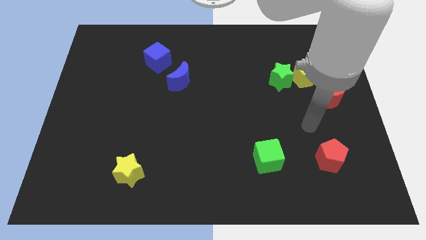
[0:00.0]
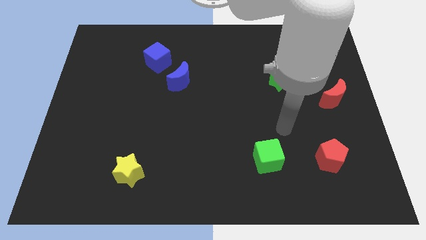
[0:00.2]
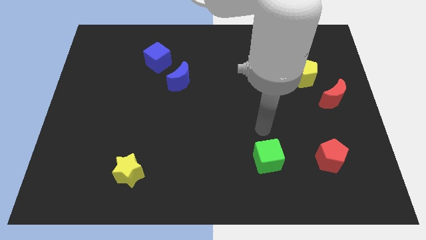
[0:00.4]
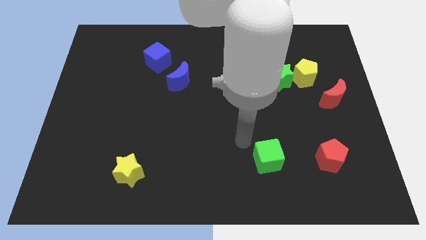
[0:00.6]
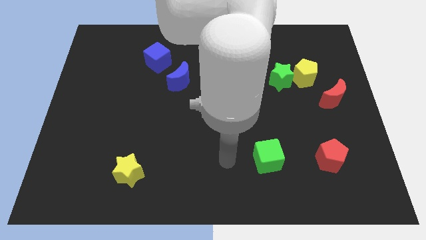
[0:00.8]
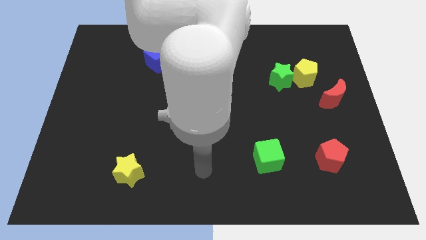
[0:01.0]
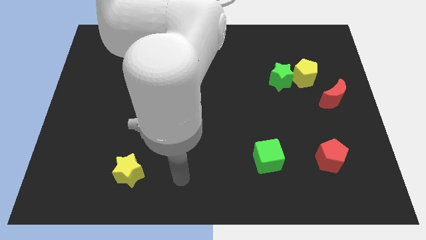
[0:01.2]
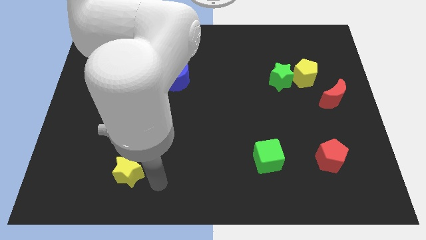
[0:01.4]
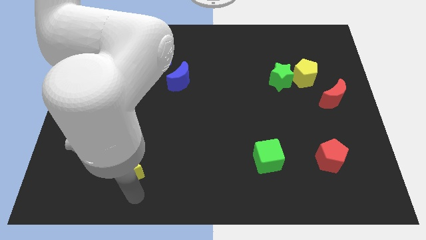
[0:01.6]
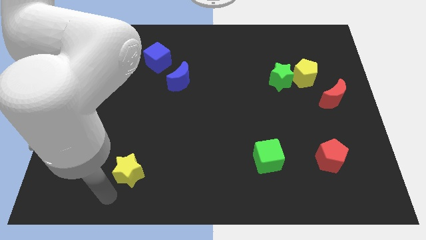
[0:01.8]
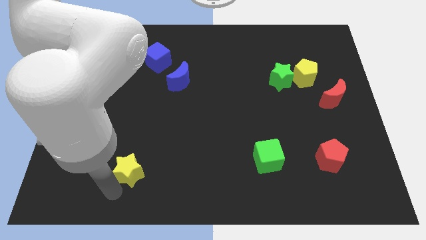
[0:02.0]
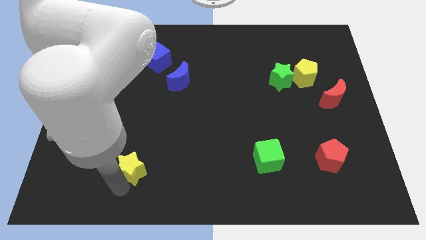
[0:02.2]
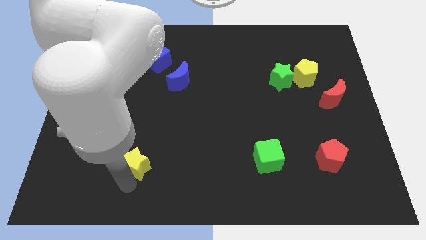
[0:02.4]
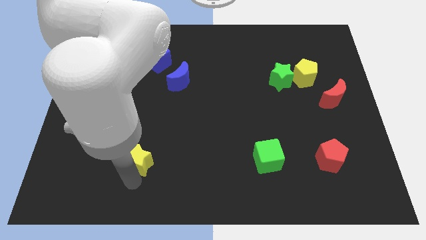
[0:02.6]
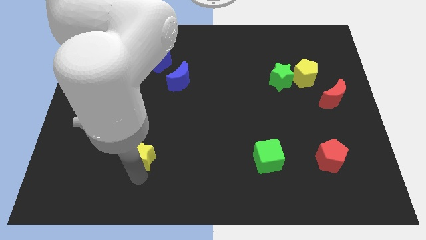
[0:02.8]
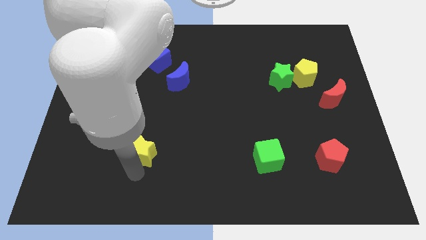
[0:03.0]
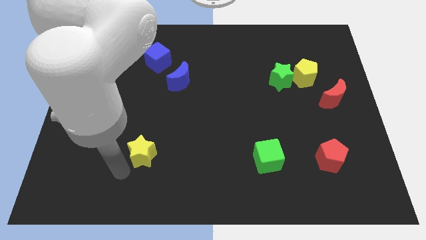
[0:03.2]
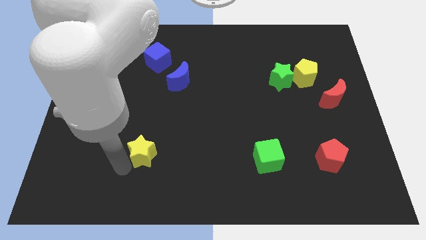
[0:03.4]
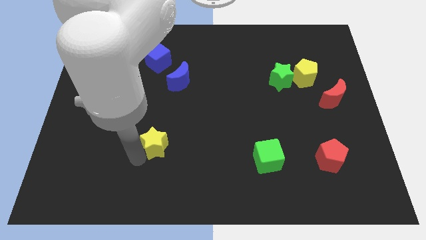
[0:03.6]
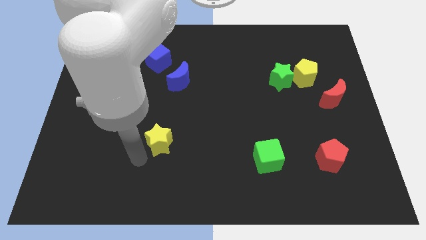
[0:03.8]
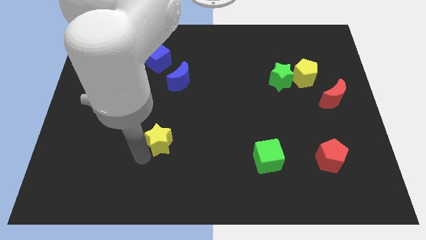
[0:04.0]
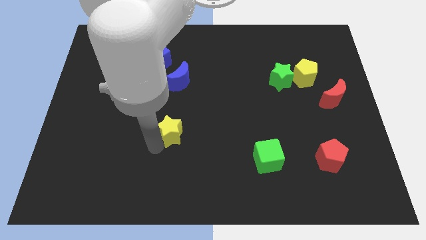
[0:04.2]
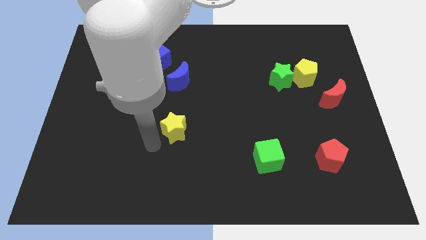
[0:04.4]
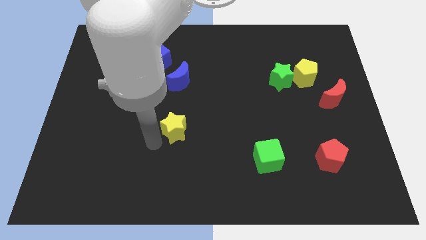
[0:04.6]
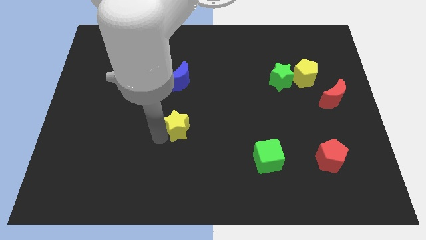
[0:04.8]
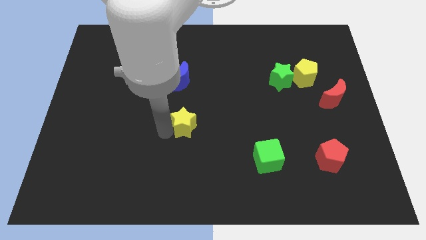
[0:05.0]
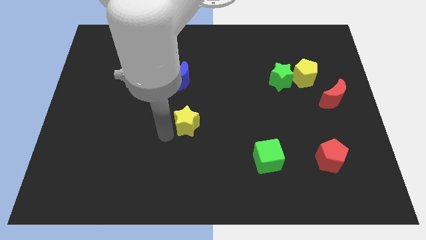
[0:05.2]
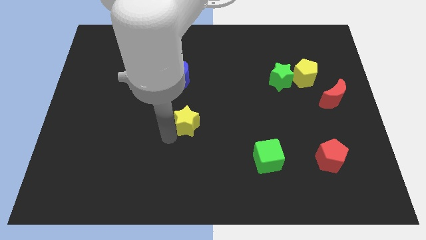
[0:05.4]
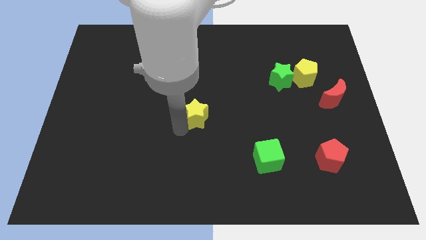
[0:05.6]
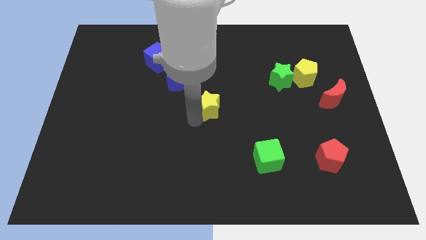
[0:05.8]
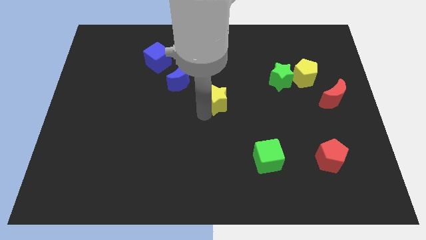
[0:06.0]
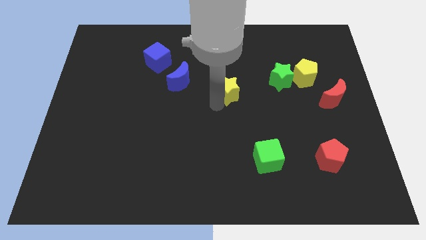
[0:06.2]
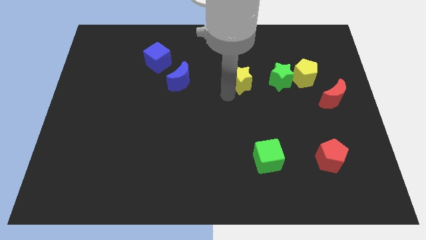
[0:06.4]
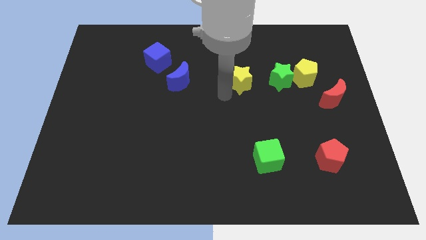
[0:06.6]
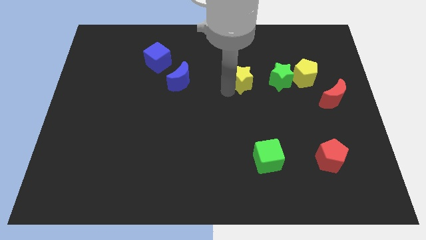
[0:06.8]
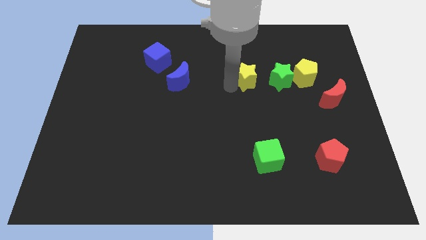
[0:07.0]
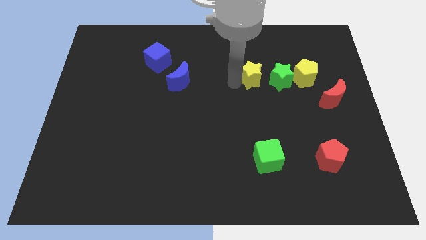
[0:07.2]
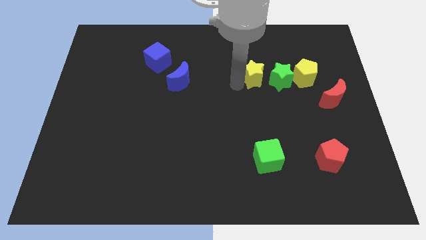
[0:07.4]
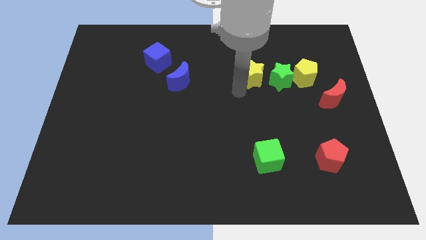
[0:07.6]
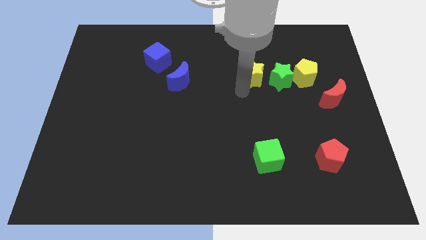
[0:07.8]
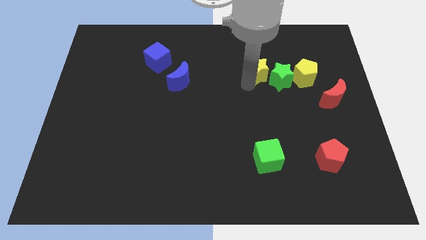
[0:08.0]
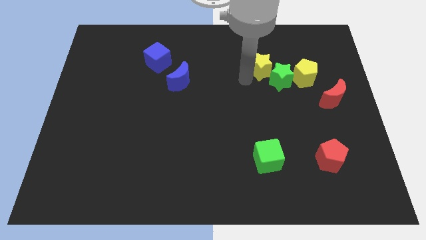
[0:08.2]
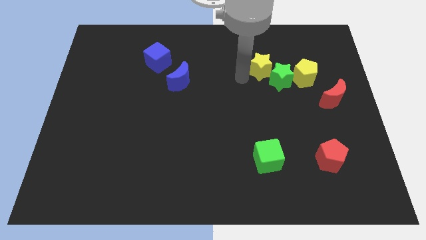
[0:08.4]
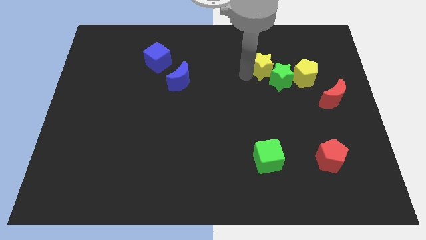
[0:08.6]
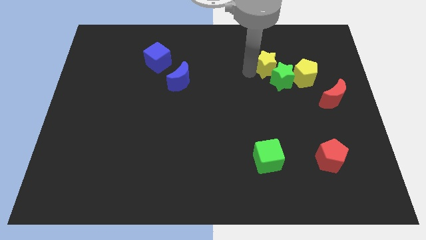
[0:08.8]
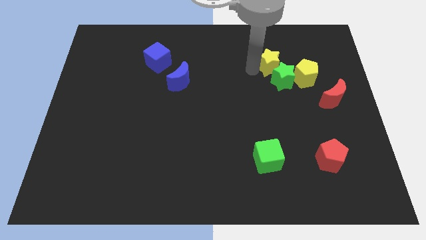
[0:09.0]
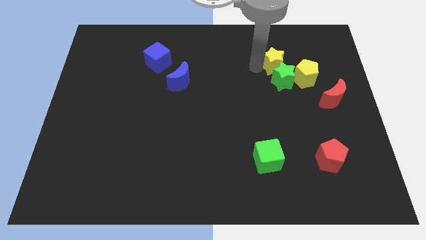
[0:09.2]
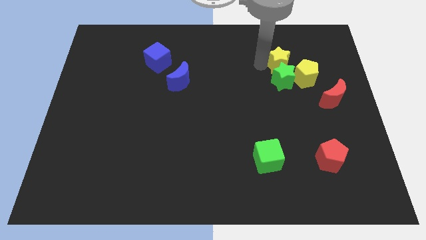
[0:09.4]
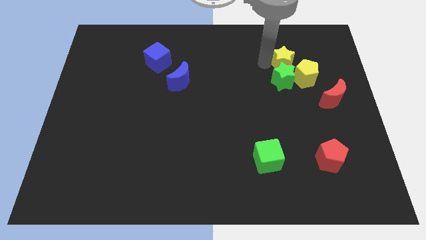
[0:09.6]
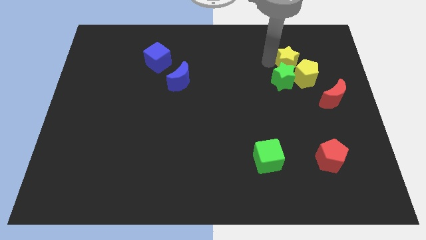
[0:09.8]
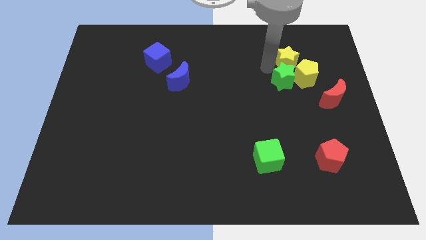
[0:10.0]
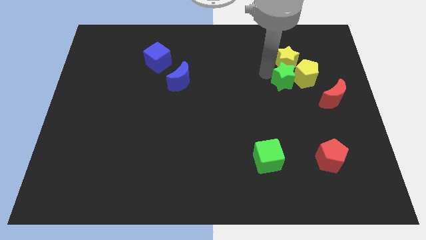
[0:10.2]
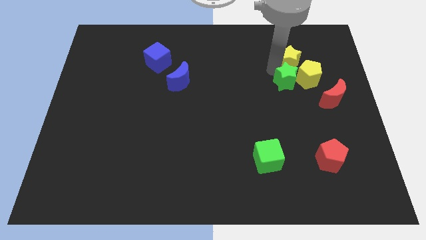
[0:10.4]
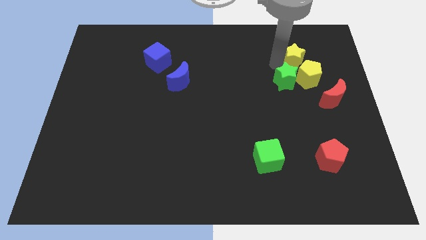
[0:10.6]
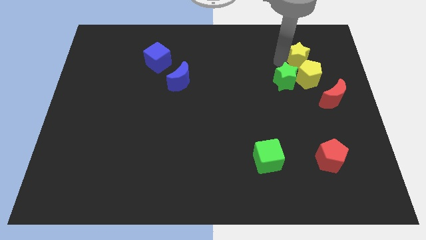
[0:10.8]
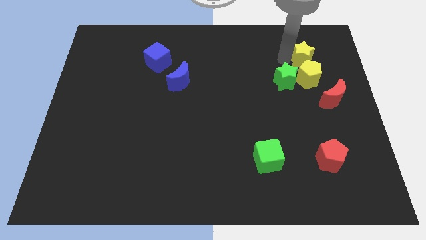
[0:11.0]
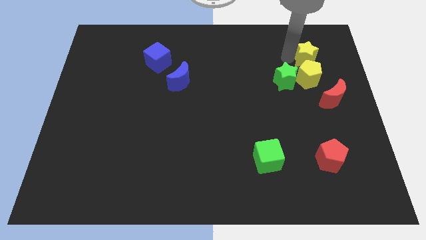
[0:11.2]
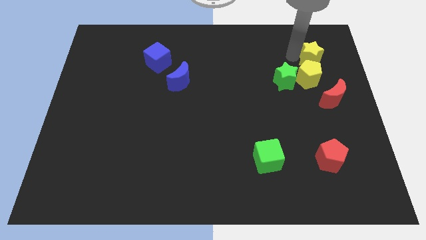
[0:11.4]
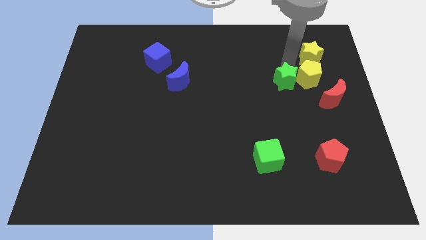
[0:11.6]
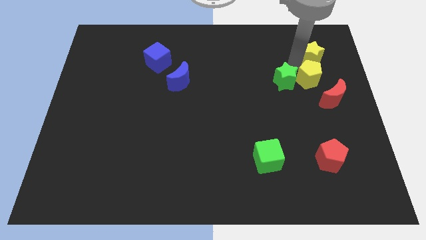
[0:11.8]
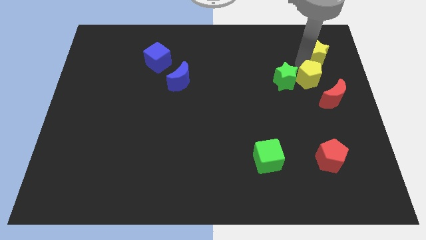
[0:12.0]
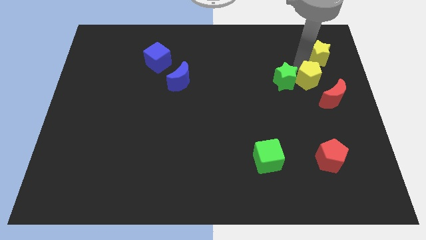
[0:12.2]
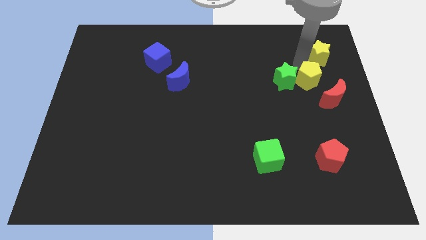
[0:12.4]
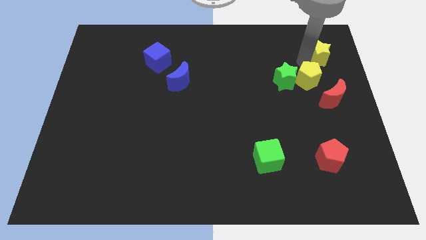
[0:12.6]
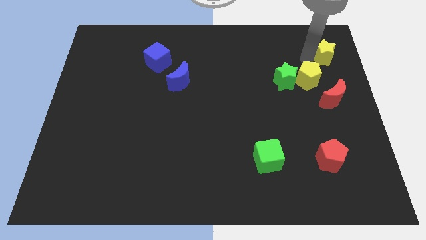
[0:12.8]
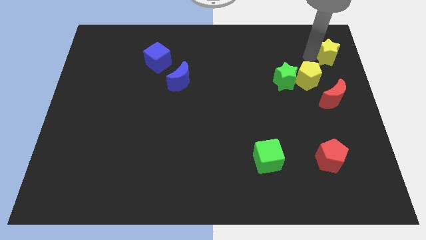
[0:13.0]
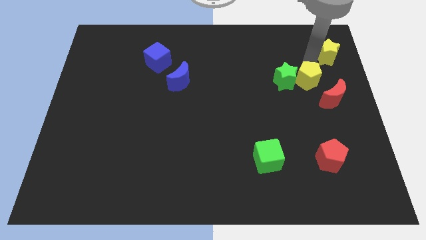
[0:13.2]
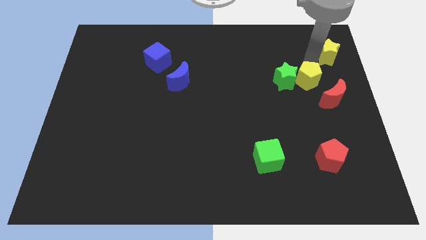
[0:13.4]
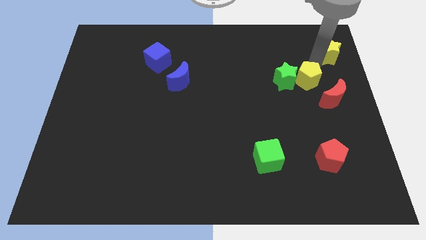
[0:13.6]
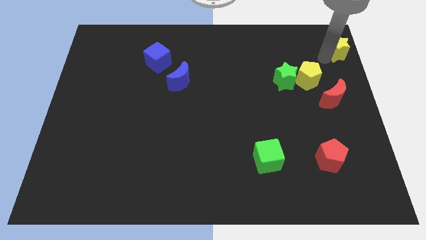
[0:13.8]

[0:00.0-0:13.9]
put the yellow star to the top right
